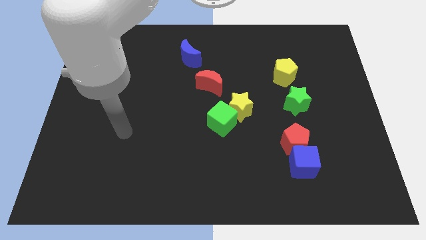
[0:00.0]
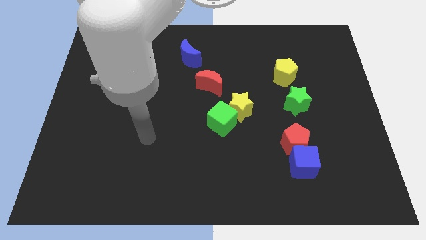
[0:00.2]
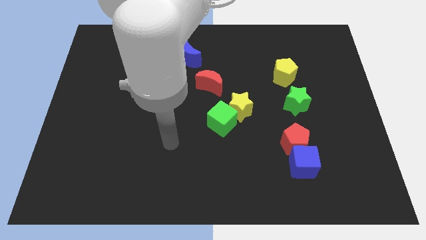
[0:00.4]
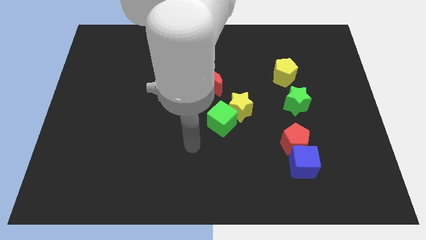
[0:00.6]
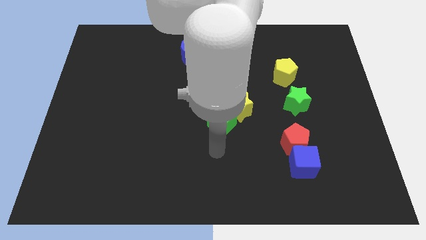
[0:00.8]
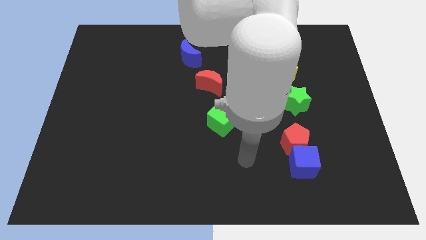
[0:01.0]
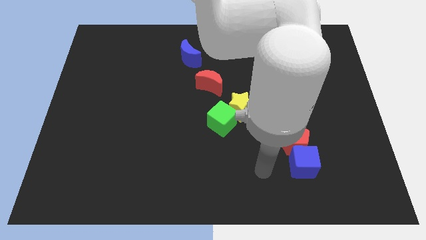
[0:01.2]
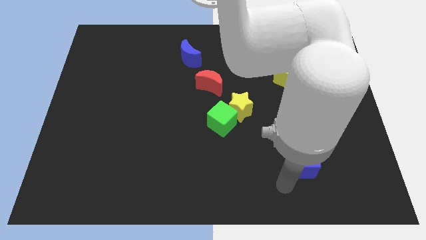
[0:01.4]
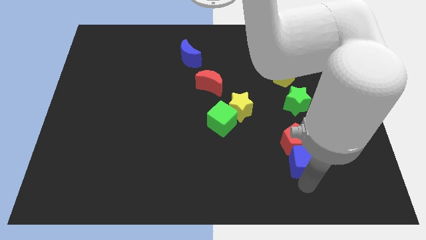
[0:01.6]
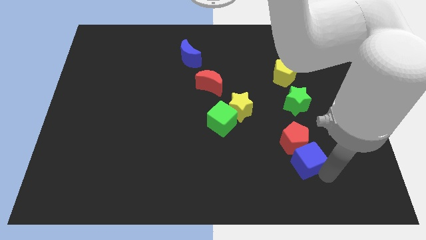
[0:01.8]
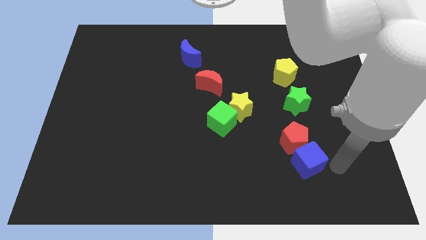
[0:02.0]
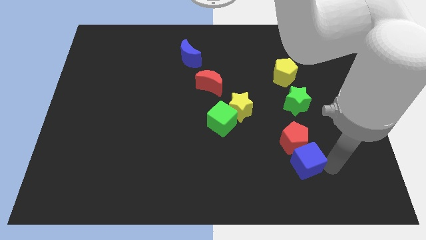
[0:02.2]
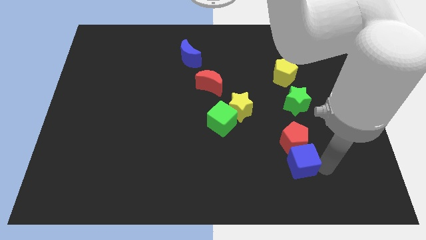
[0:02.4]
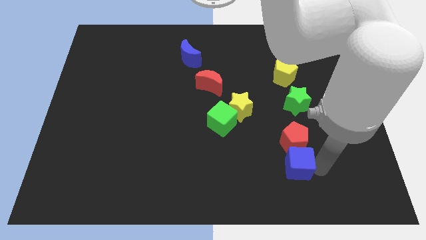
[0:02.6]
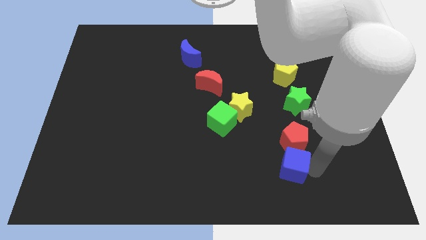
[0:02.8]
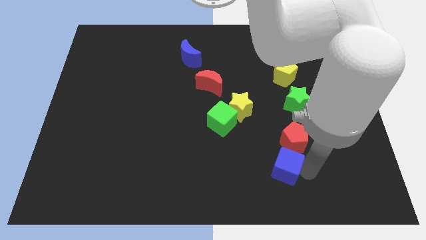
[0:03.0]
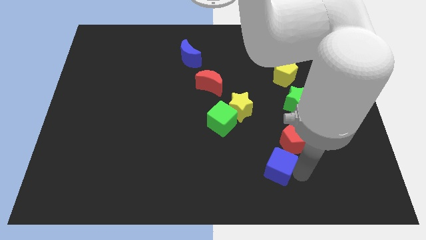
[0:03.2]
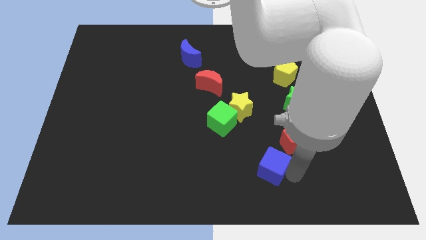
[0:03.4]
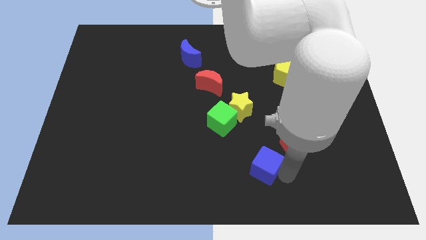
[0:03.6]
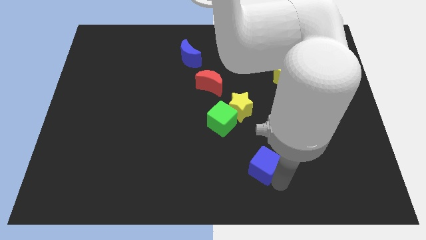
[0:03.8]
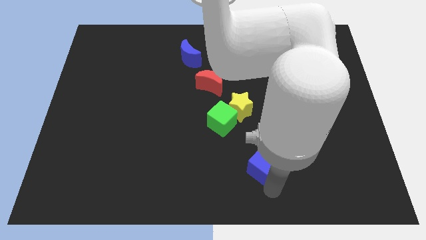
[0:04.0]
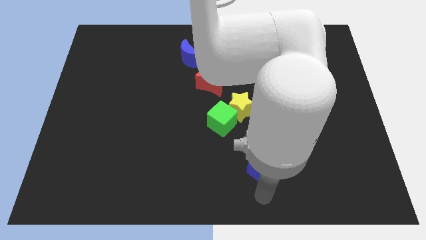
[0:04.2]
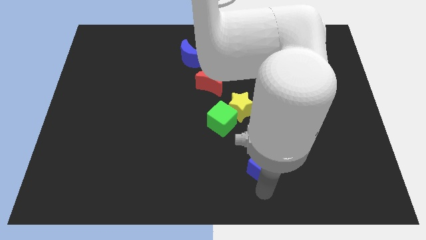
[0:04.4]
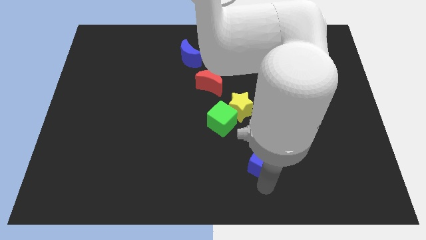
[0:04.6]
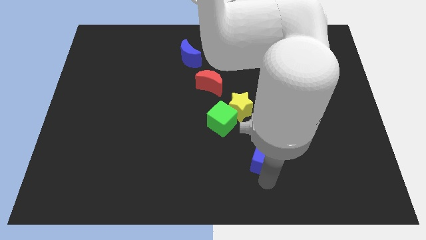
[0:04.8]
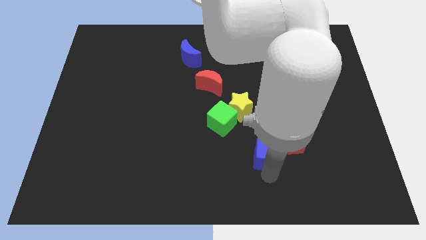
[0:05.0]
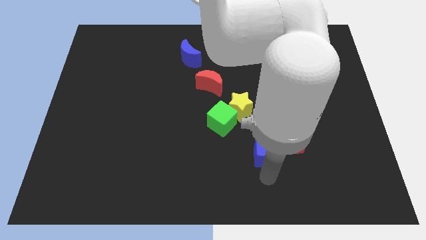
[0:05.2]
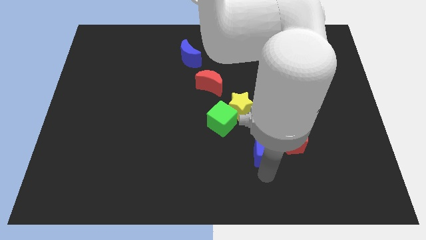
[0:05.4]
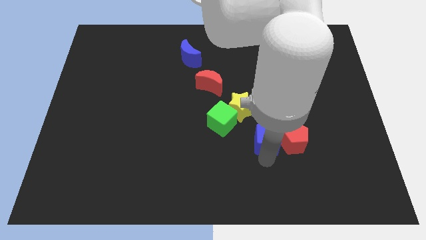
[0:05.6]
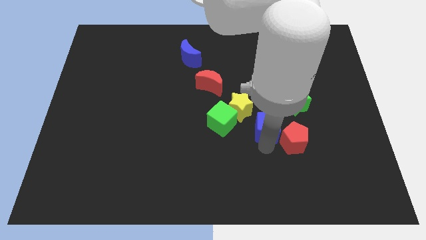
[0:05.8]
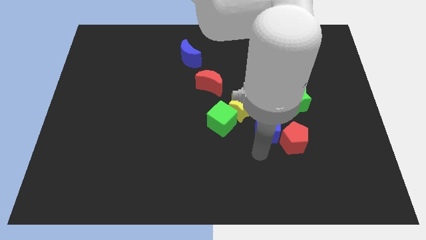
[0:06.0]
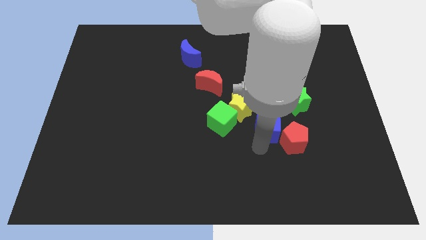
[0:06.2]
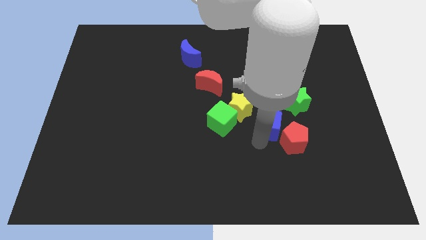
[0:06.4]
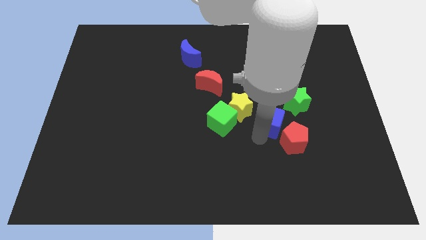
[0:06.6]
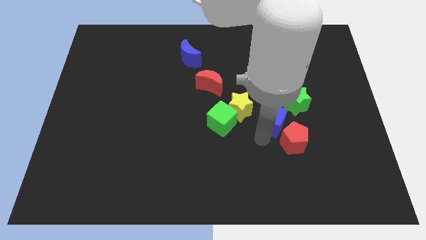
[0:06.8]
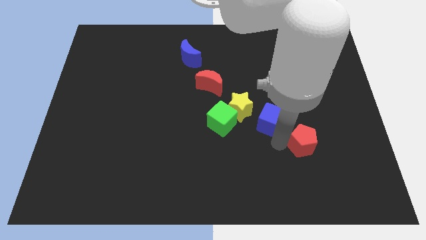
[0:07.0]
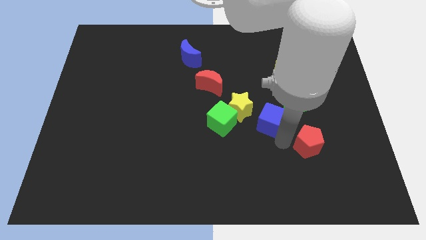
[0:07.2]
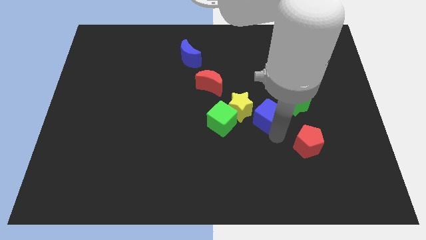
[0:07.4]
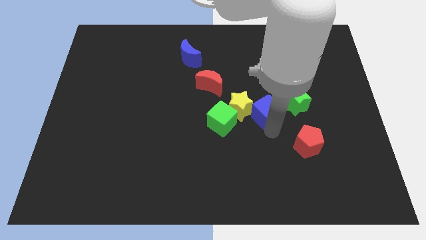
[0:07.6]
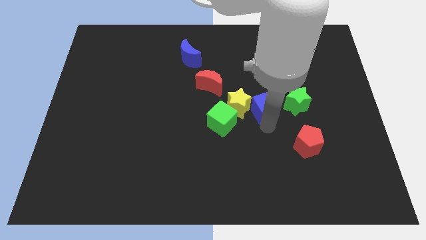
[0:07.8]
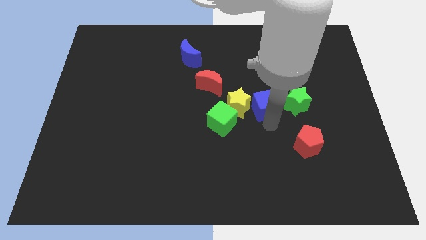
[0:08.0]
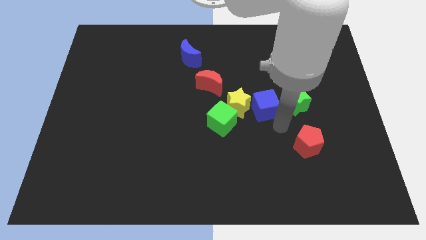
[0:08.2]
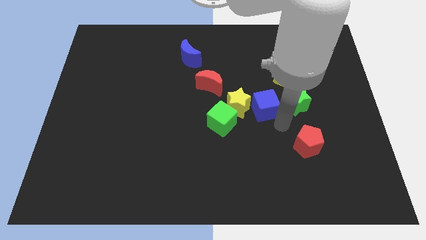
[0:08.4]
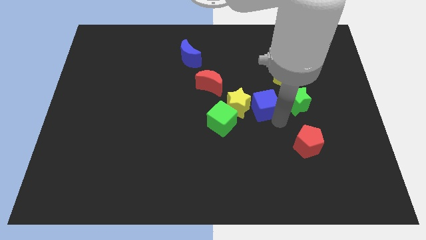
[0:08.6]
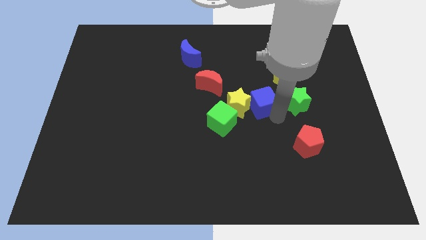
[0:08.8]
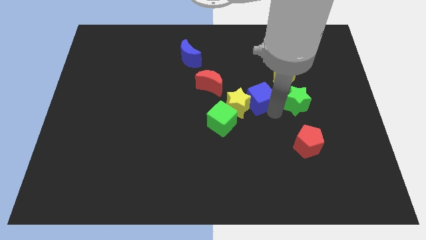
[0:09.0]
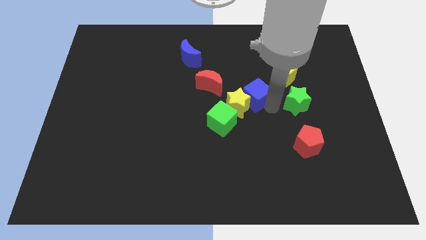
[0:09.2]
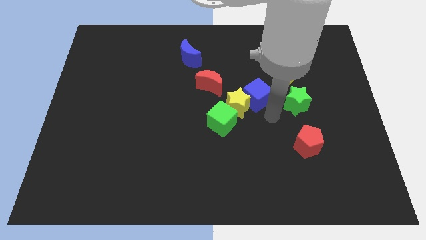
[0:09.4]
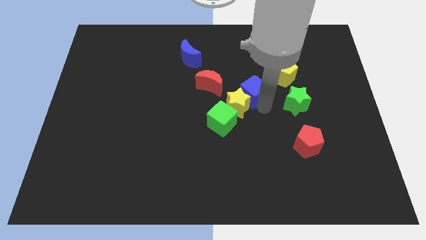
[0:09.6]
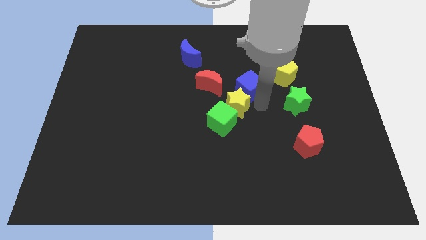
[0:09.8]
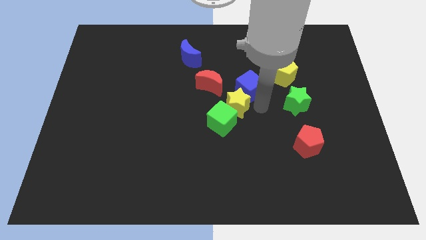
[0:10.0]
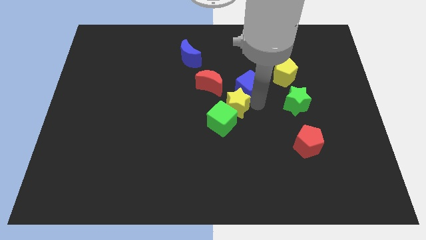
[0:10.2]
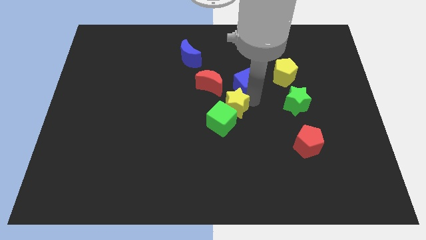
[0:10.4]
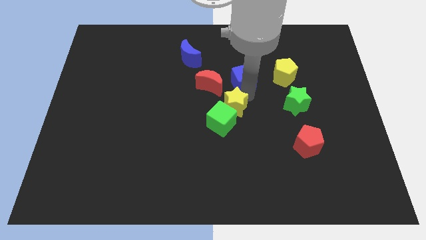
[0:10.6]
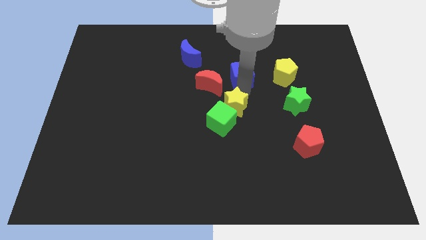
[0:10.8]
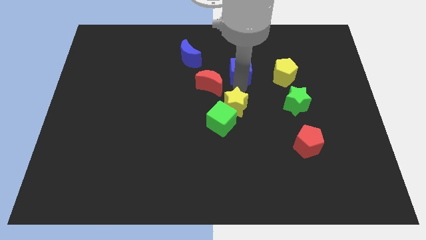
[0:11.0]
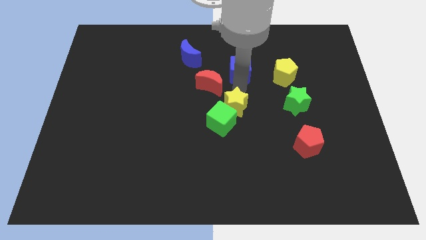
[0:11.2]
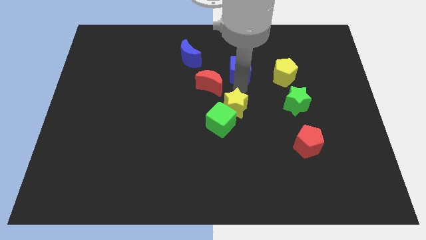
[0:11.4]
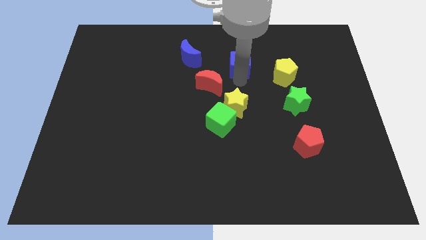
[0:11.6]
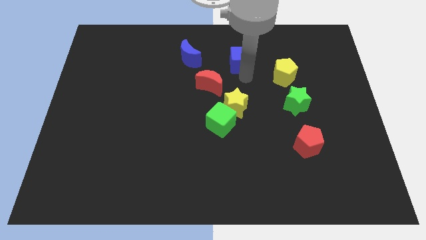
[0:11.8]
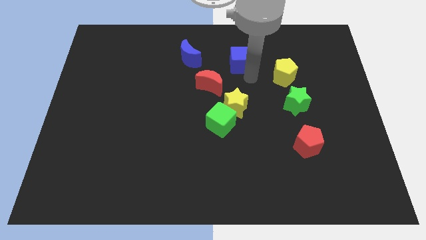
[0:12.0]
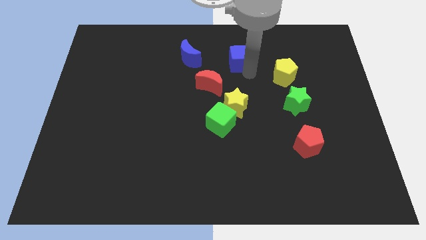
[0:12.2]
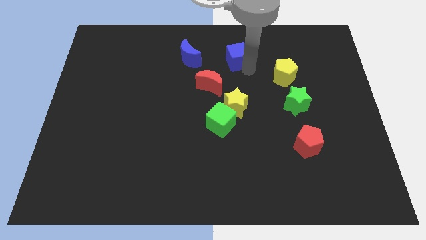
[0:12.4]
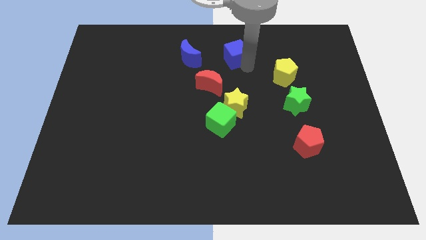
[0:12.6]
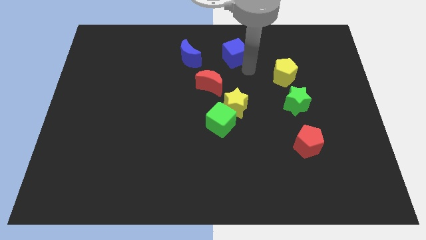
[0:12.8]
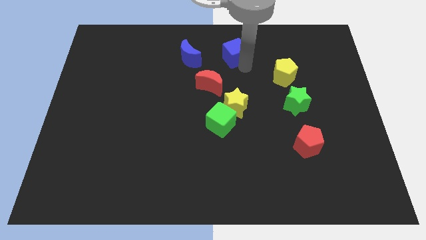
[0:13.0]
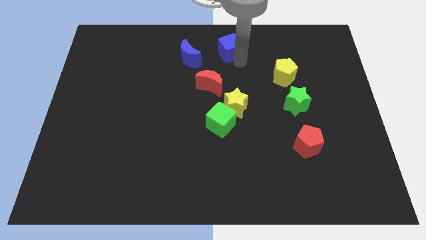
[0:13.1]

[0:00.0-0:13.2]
push the blue cube to the towards your base
